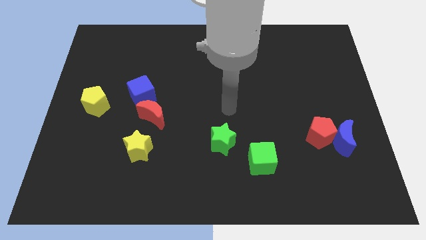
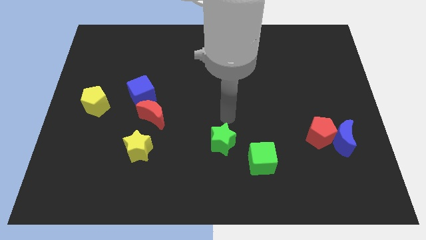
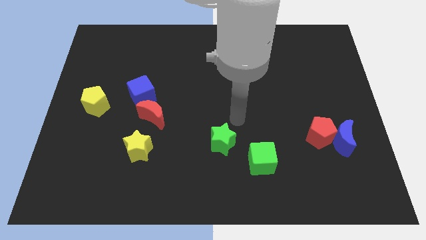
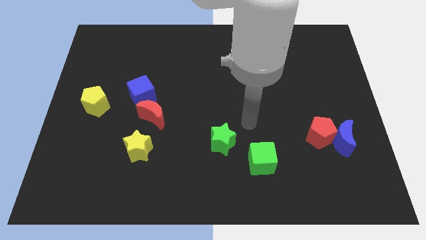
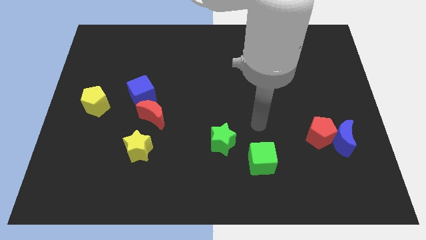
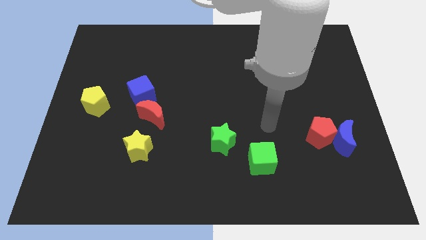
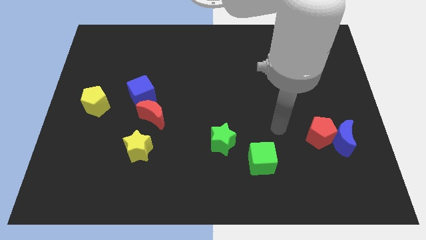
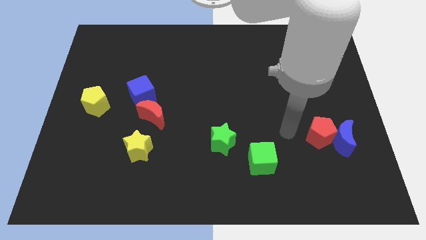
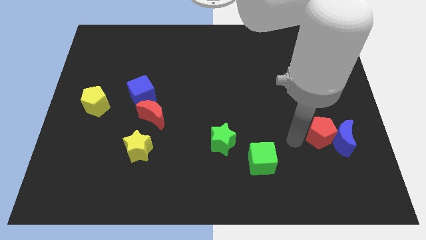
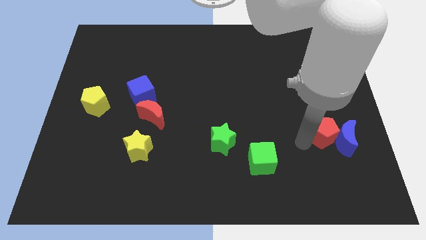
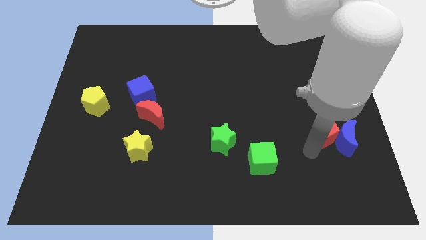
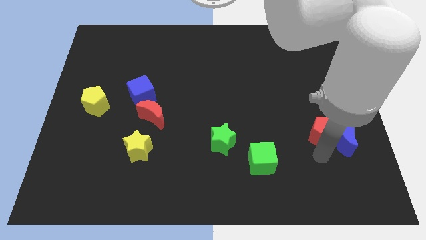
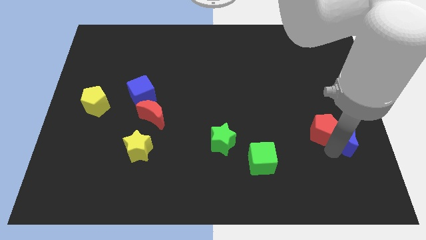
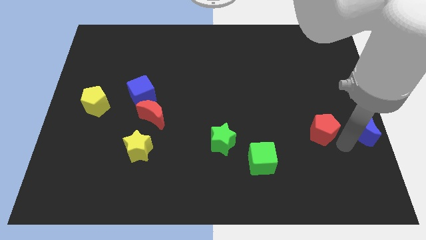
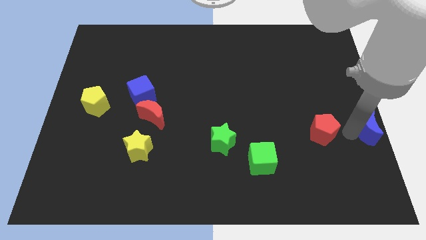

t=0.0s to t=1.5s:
pull the red pentagon apart from the blue moon

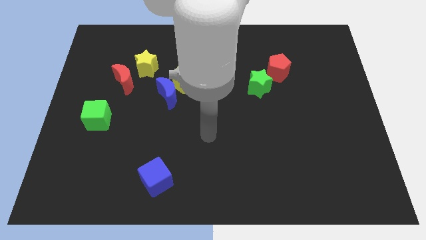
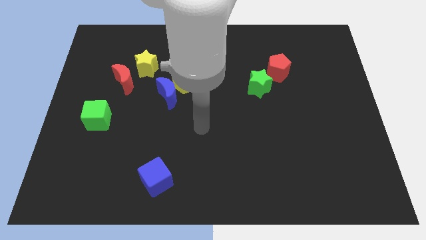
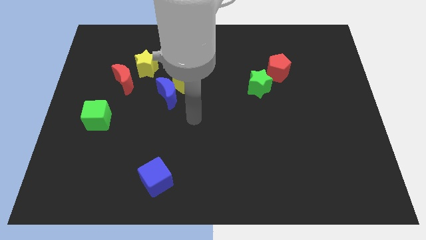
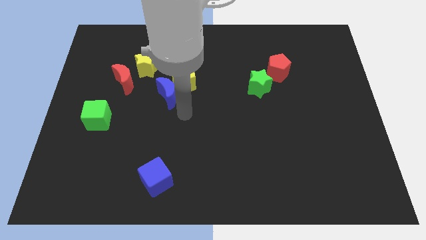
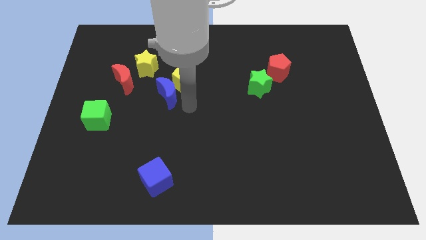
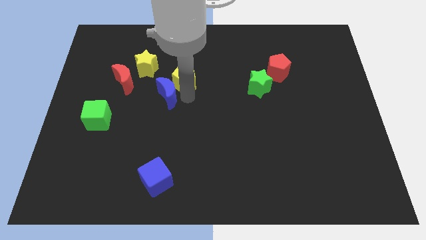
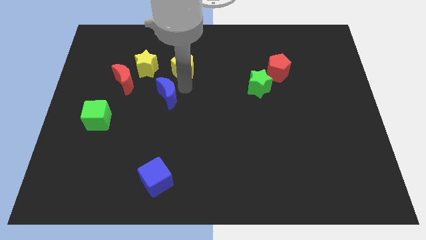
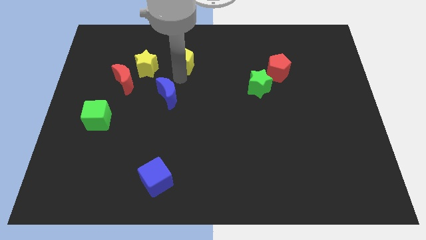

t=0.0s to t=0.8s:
move the blue moon away from the yellow pentagon

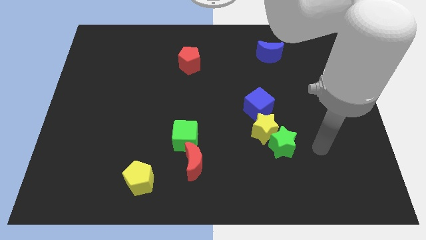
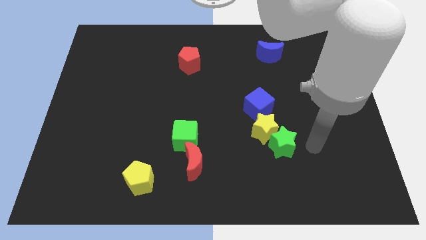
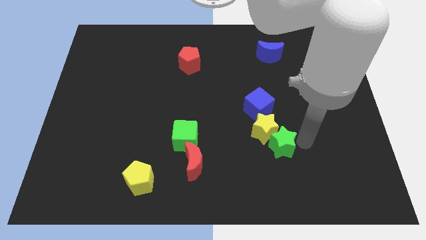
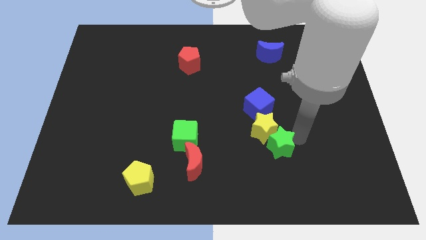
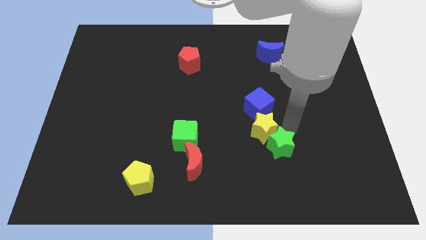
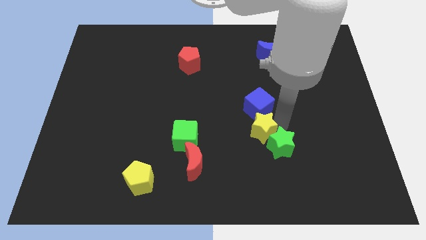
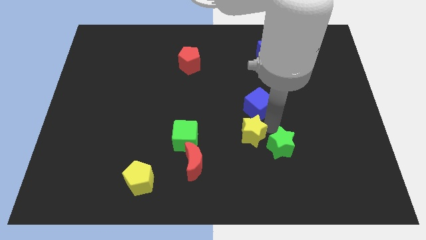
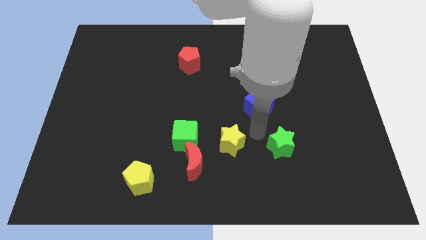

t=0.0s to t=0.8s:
pull the green star apart from the yellow star

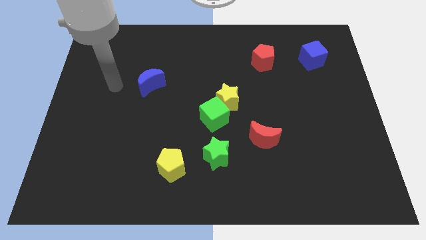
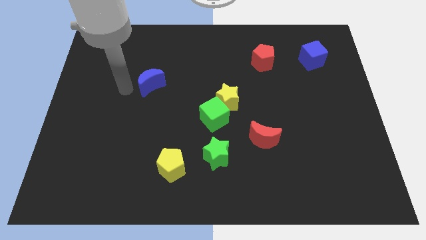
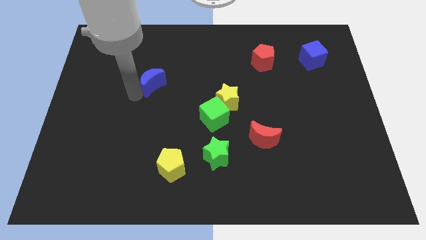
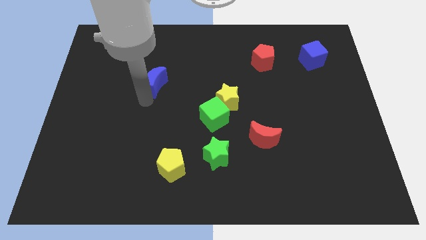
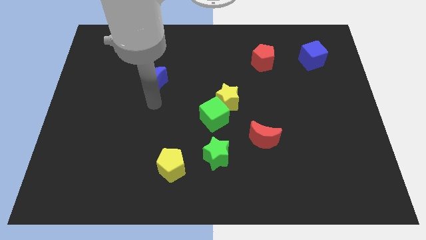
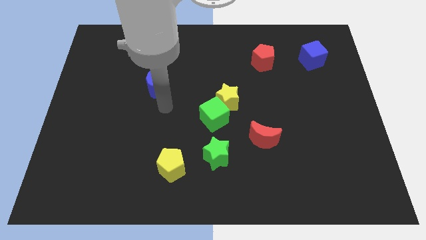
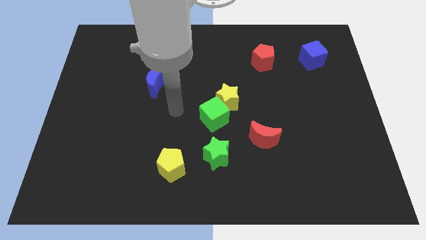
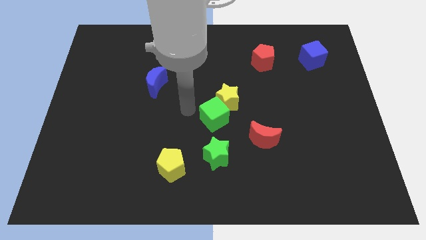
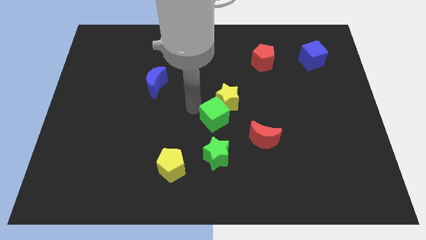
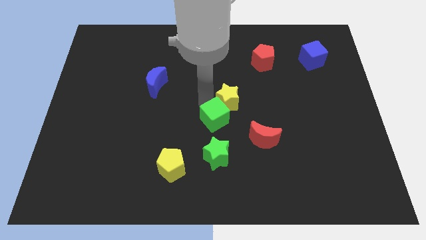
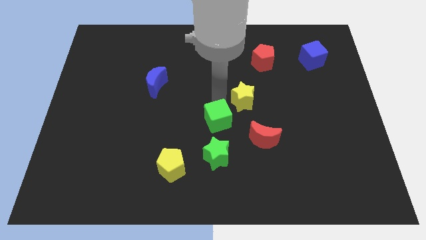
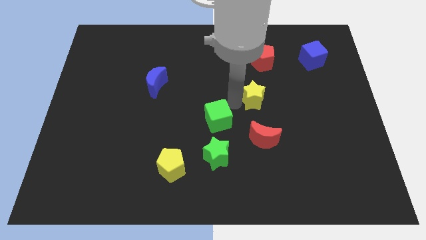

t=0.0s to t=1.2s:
move the green cube away from the yellow star

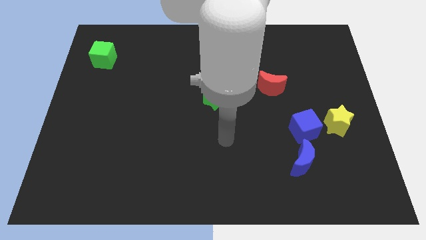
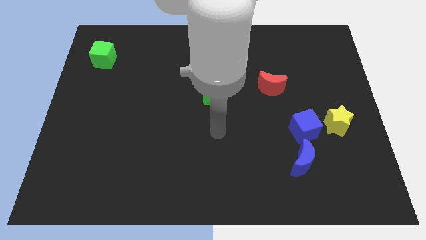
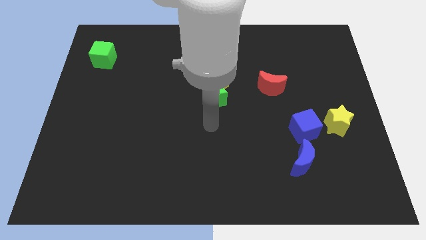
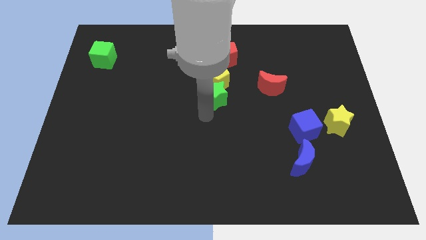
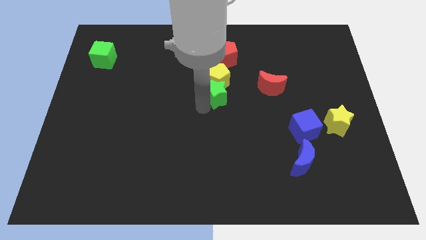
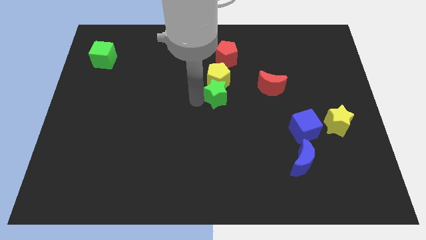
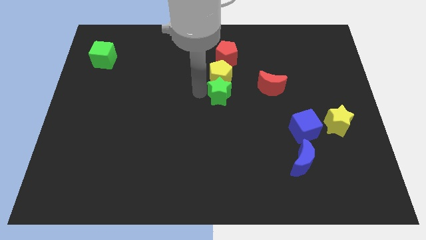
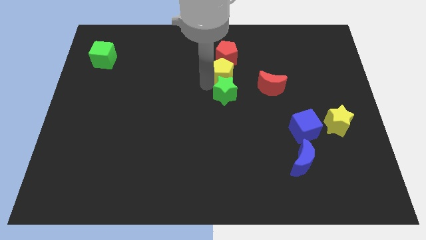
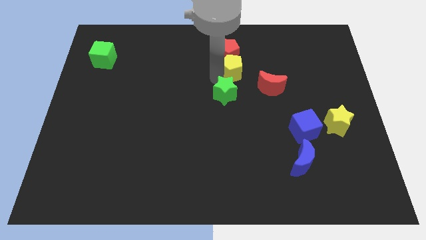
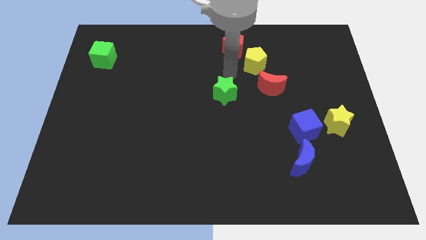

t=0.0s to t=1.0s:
move the green star away from the yellow pentagon

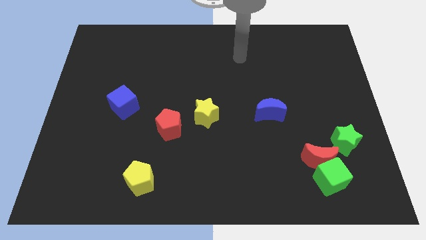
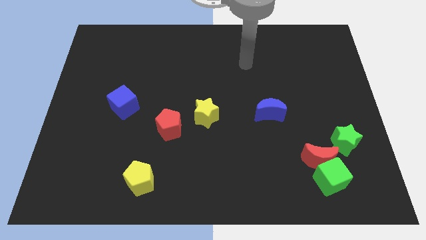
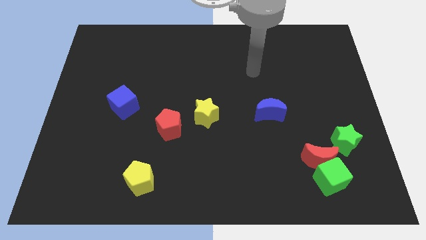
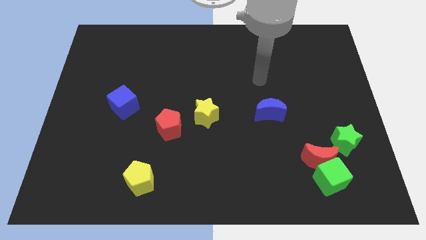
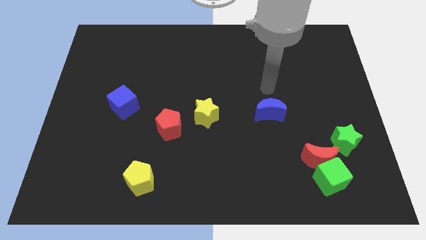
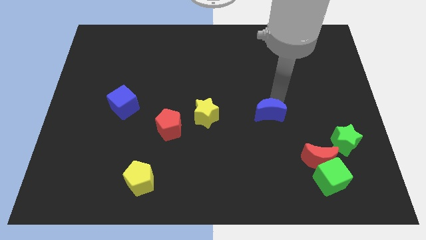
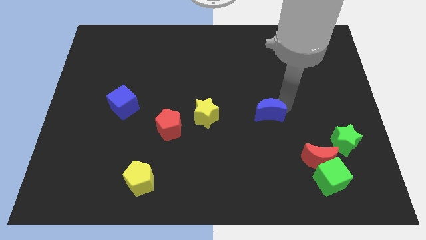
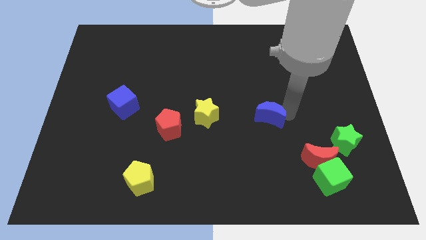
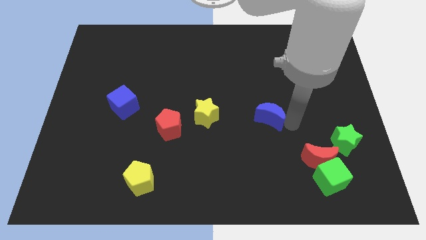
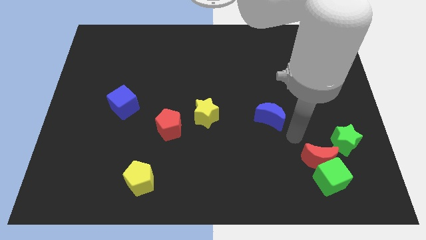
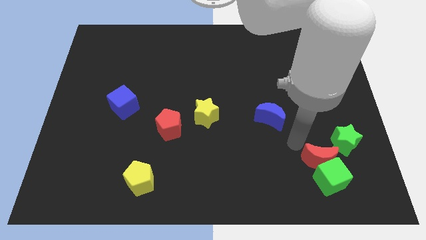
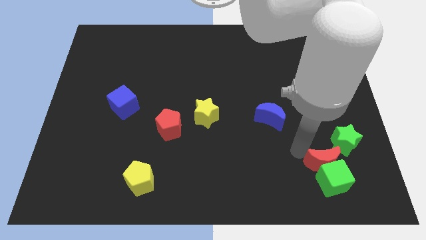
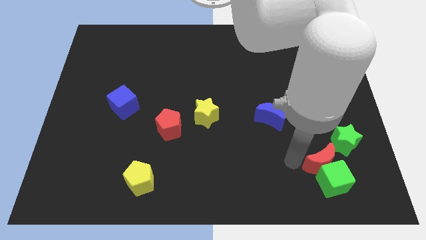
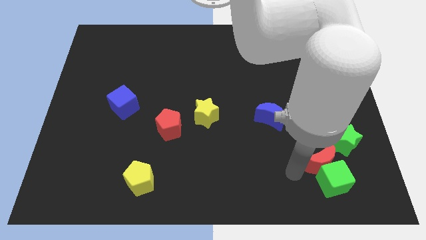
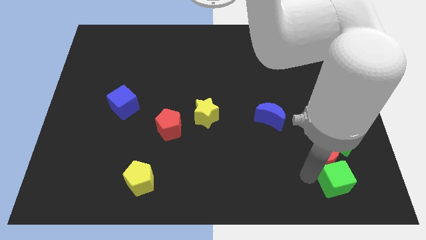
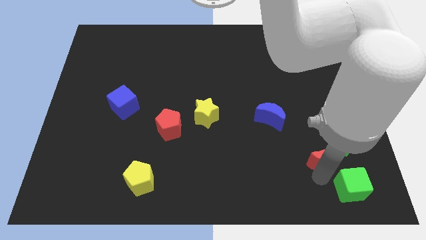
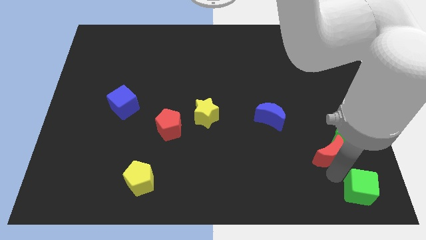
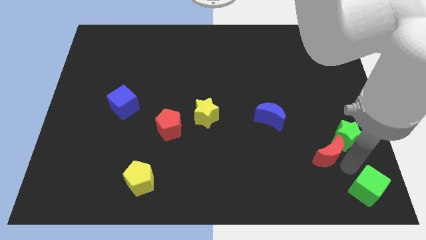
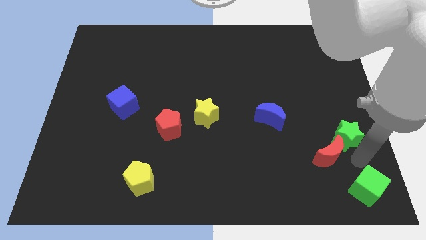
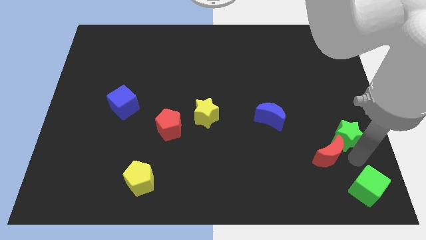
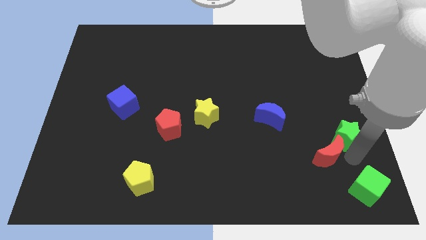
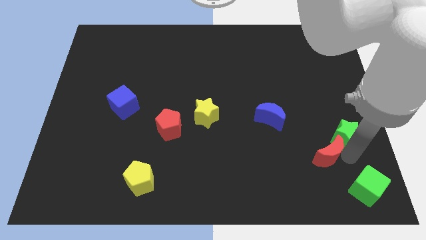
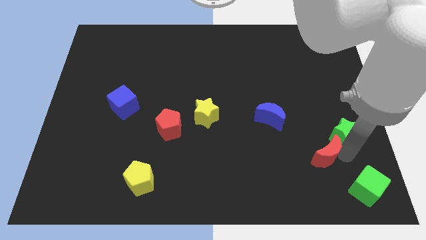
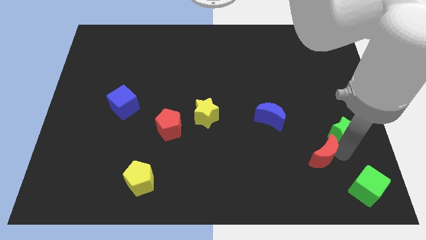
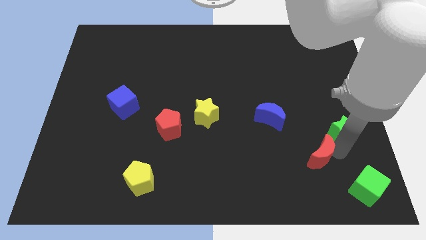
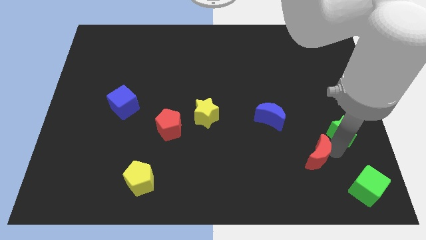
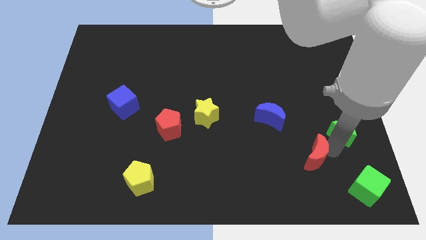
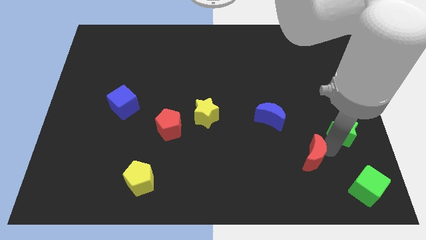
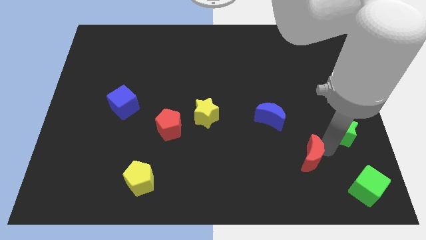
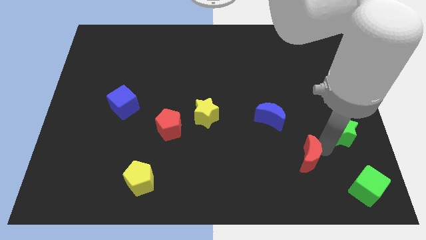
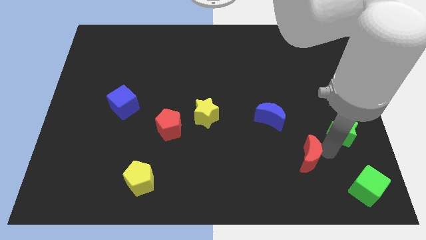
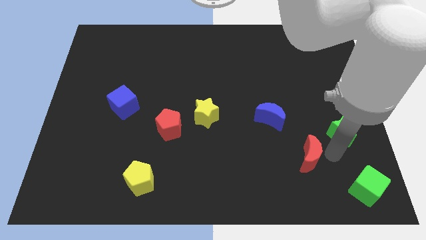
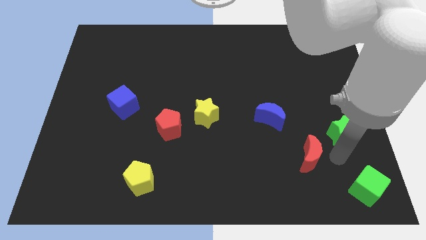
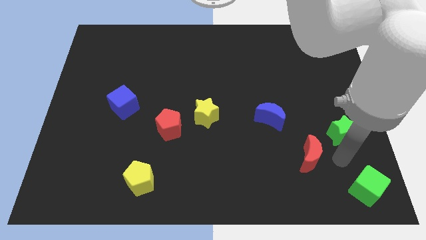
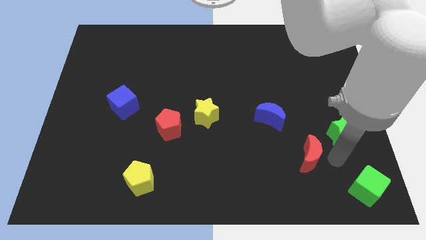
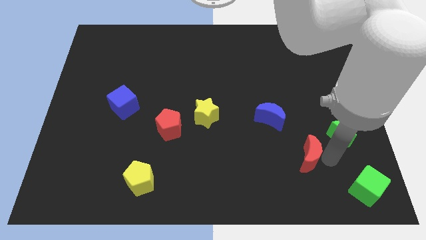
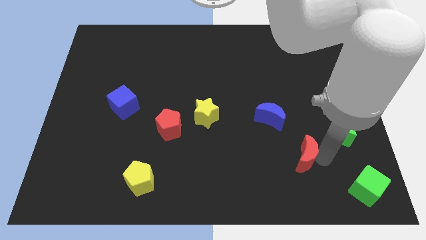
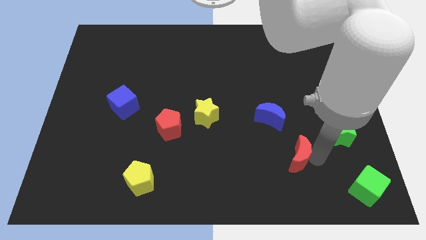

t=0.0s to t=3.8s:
separate the red moon from the green cube and green star

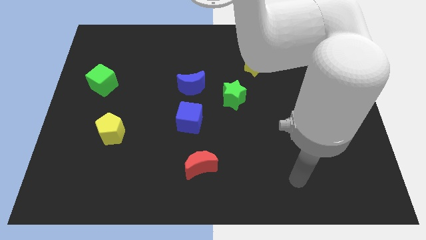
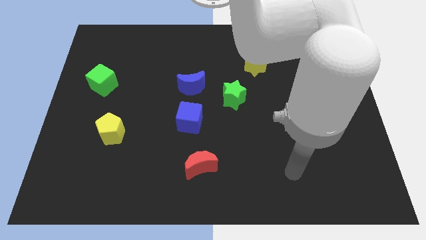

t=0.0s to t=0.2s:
separate the blue moon from the blue cube
